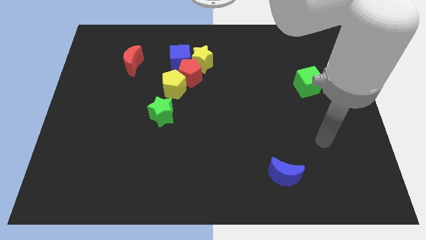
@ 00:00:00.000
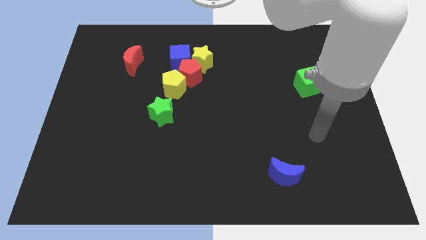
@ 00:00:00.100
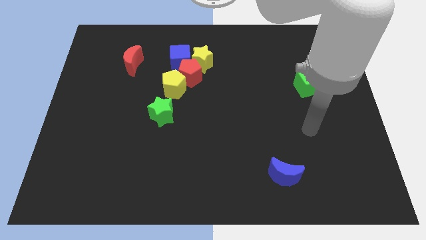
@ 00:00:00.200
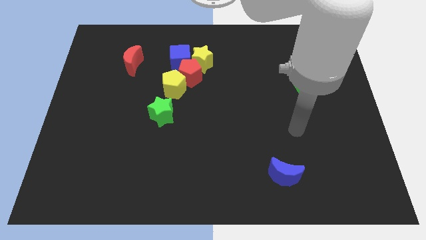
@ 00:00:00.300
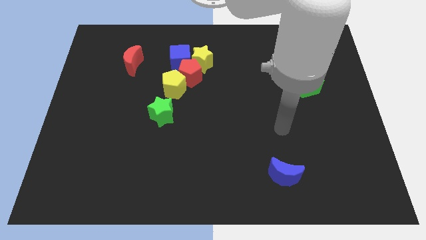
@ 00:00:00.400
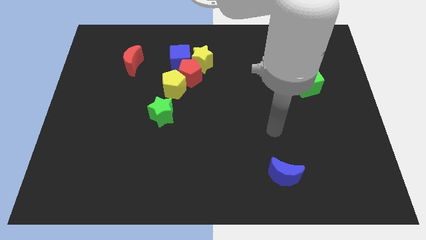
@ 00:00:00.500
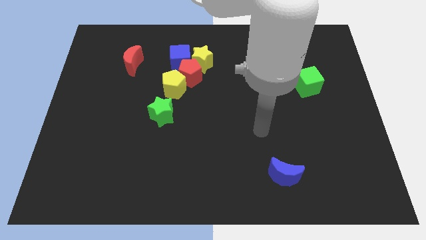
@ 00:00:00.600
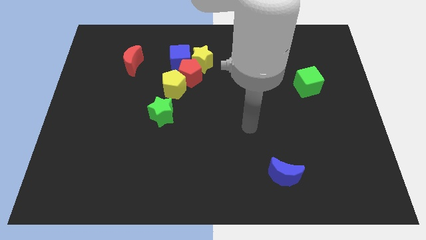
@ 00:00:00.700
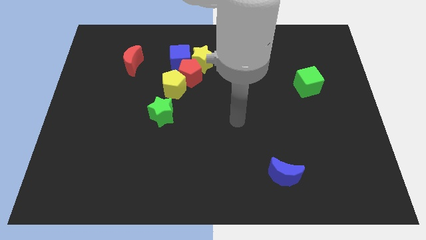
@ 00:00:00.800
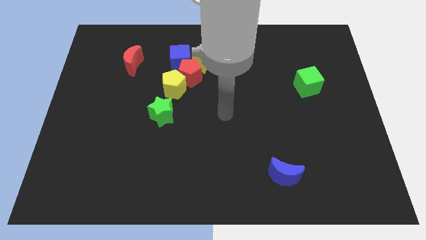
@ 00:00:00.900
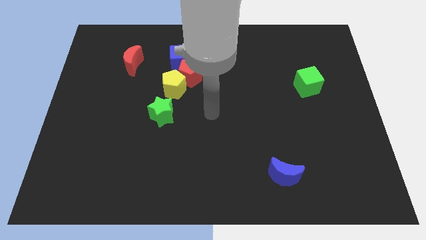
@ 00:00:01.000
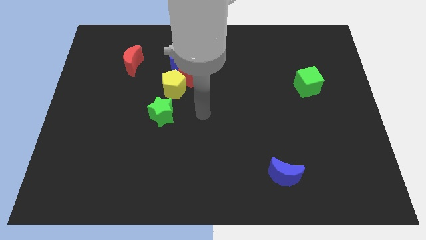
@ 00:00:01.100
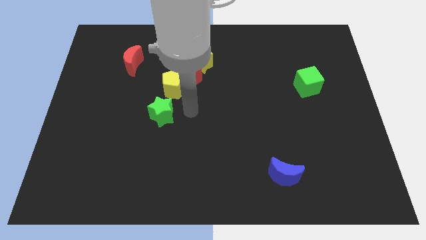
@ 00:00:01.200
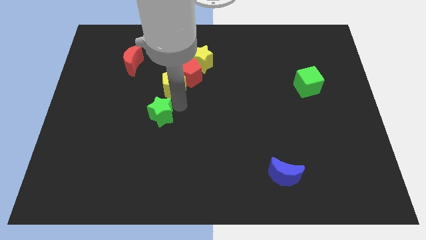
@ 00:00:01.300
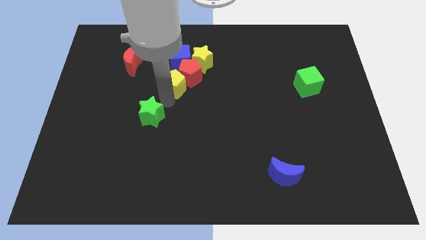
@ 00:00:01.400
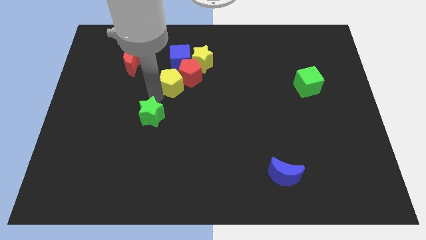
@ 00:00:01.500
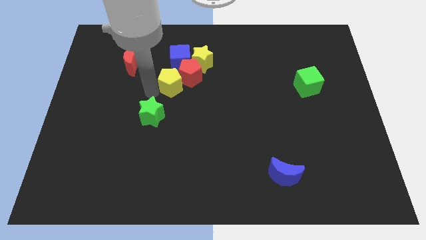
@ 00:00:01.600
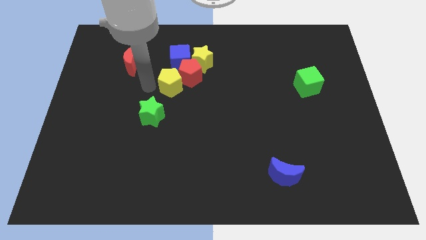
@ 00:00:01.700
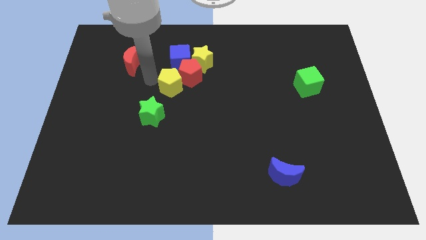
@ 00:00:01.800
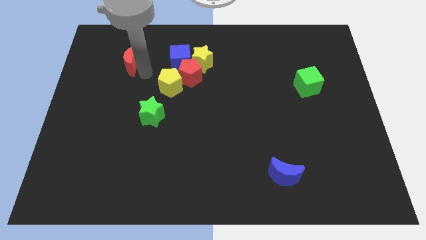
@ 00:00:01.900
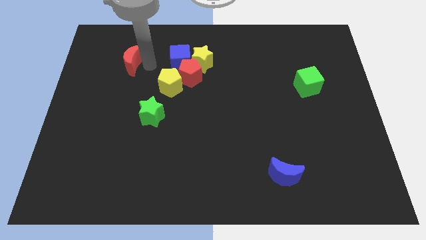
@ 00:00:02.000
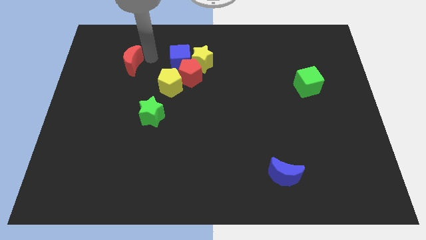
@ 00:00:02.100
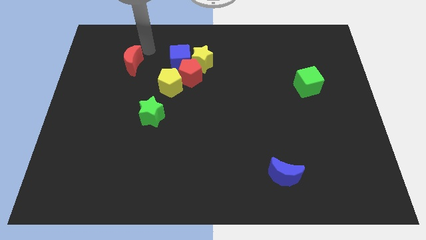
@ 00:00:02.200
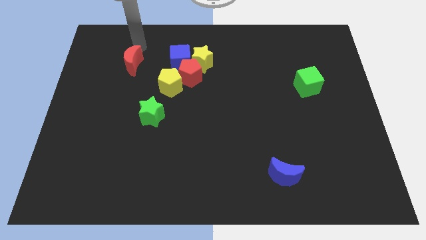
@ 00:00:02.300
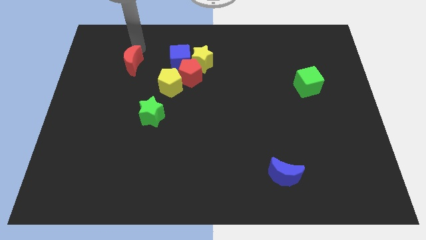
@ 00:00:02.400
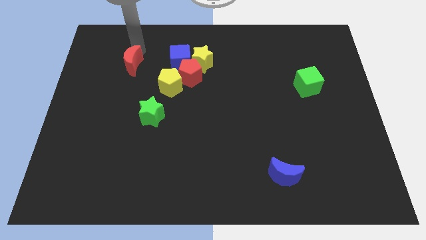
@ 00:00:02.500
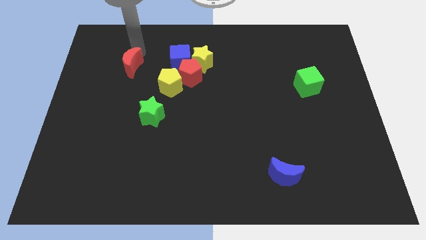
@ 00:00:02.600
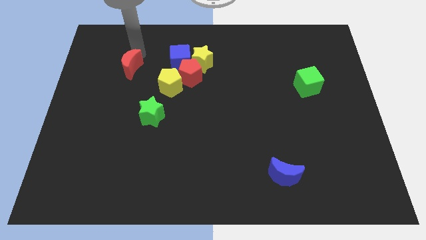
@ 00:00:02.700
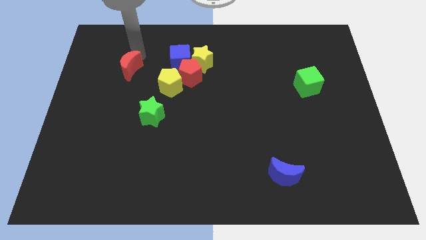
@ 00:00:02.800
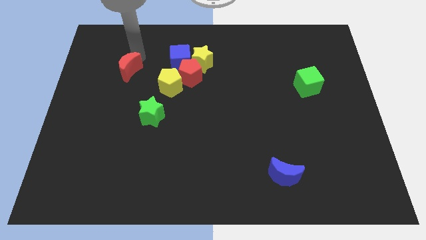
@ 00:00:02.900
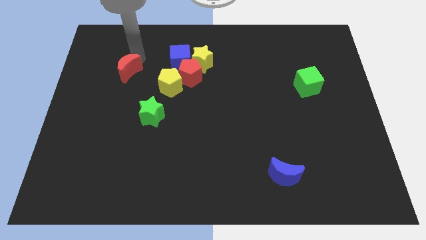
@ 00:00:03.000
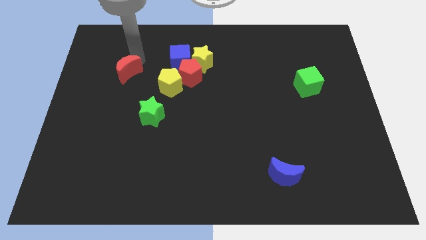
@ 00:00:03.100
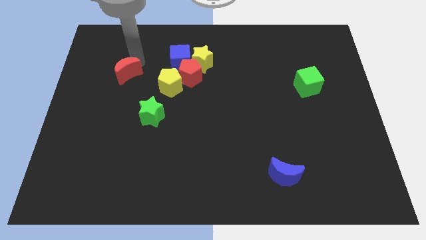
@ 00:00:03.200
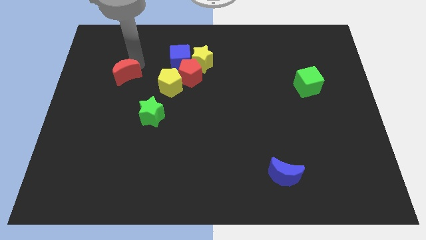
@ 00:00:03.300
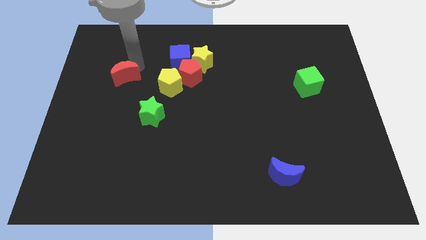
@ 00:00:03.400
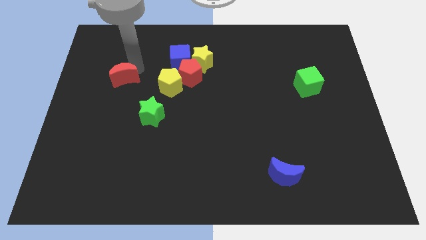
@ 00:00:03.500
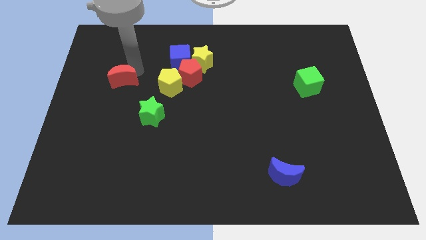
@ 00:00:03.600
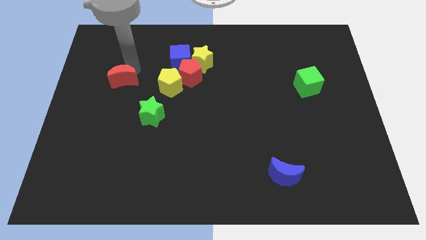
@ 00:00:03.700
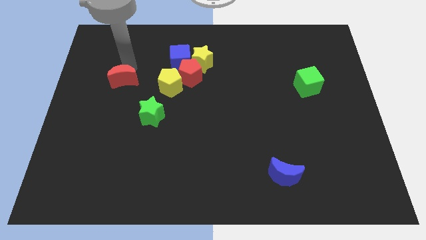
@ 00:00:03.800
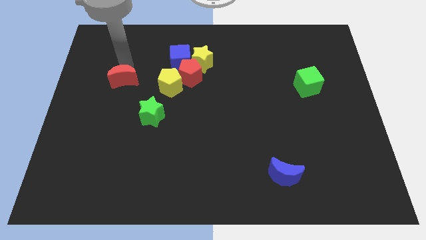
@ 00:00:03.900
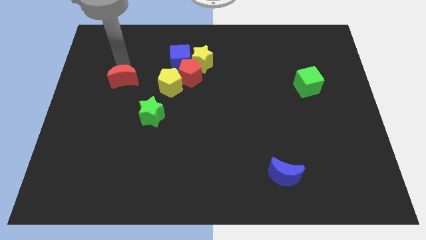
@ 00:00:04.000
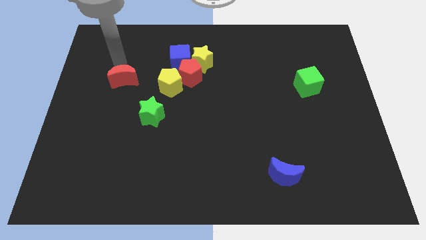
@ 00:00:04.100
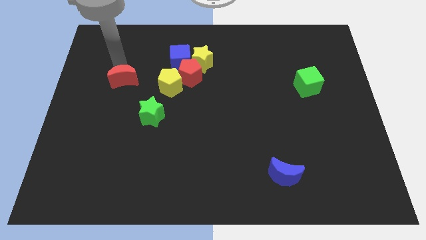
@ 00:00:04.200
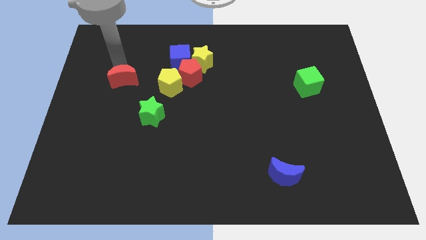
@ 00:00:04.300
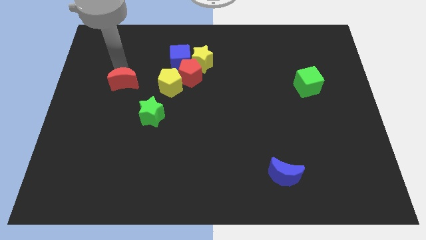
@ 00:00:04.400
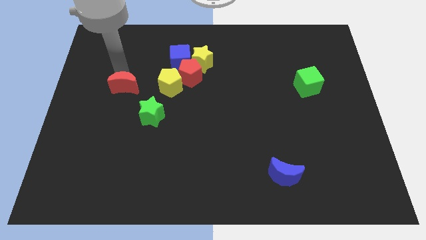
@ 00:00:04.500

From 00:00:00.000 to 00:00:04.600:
slide the red moon downwards slightly

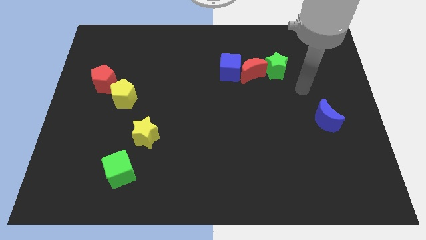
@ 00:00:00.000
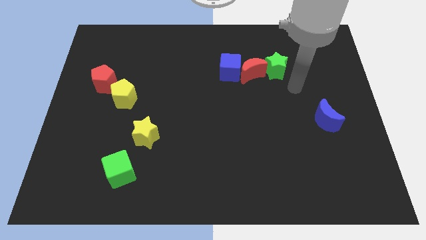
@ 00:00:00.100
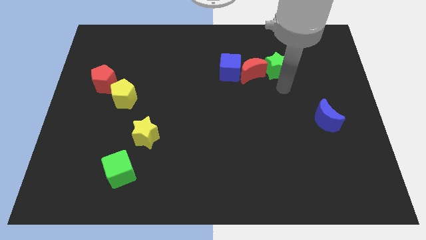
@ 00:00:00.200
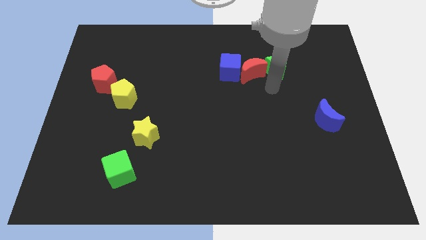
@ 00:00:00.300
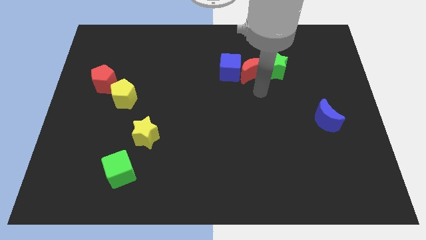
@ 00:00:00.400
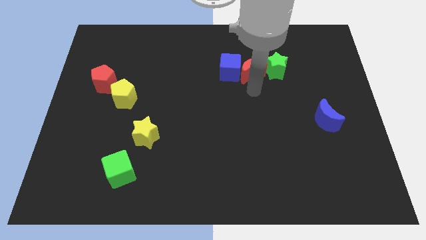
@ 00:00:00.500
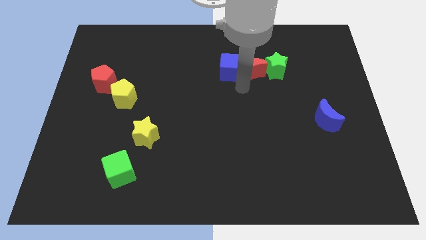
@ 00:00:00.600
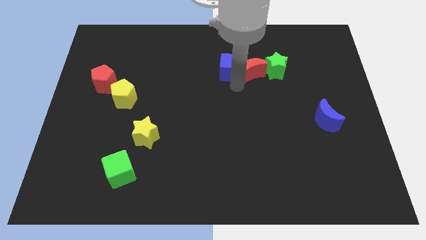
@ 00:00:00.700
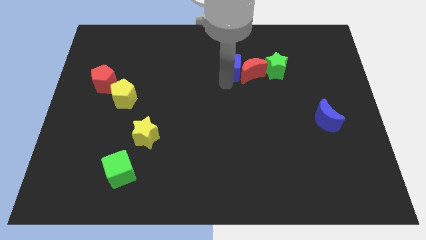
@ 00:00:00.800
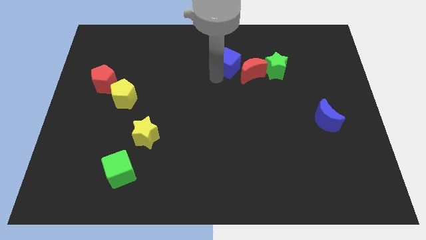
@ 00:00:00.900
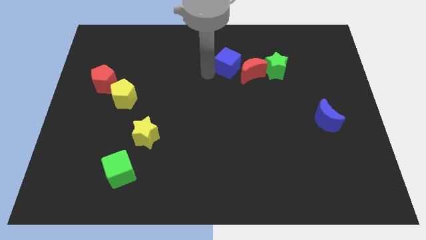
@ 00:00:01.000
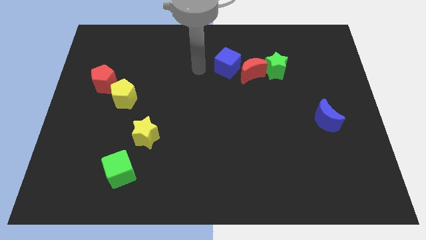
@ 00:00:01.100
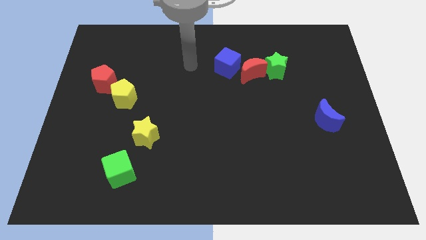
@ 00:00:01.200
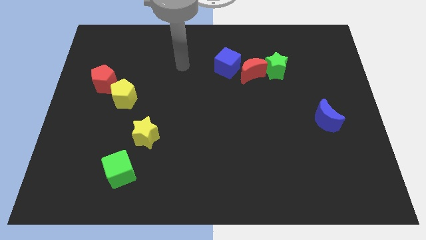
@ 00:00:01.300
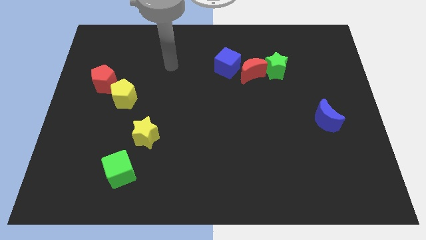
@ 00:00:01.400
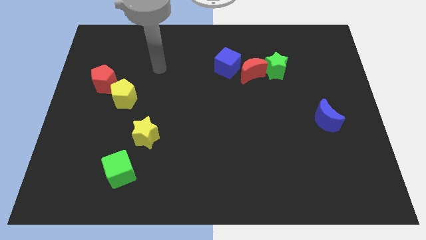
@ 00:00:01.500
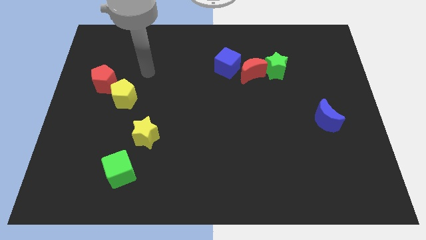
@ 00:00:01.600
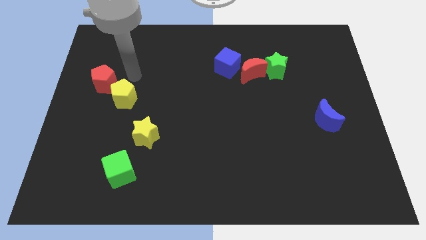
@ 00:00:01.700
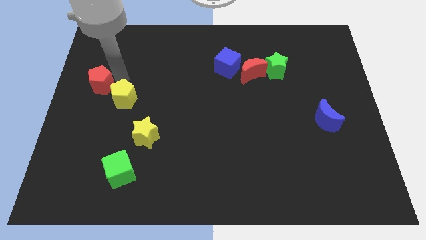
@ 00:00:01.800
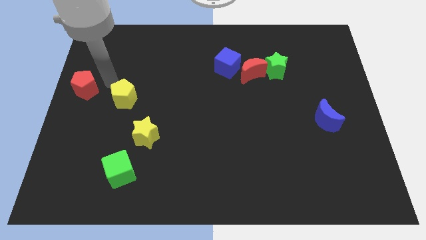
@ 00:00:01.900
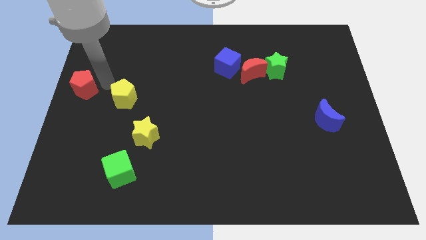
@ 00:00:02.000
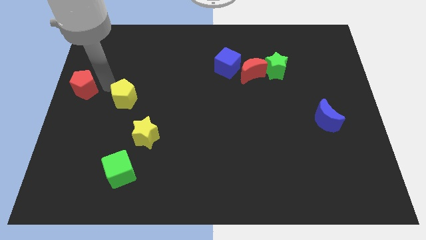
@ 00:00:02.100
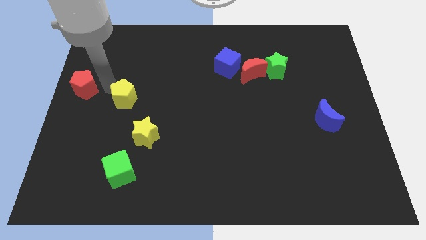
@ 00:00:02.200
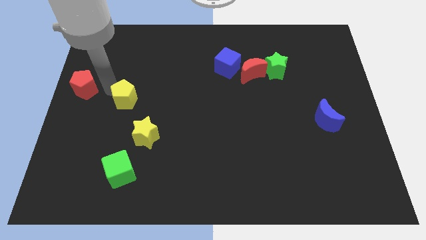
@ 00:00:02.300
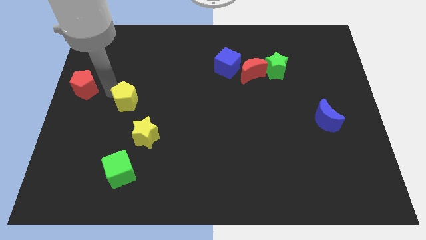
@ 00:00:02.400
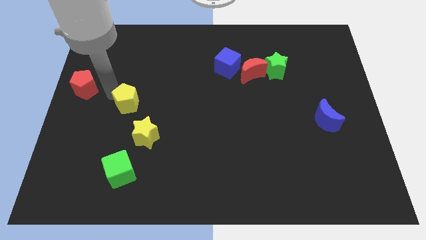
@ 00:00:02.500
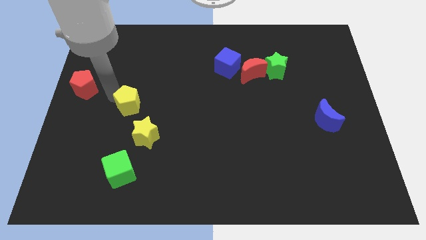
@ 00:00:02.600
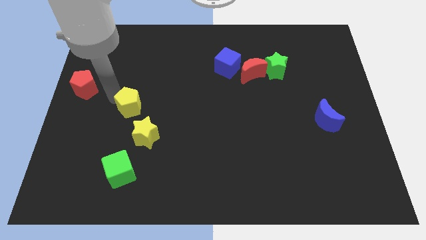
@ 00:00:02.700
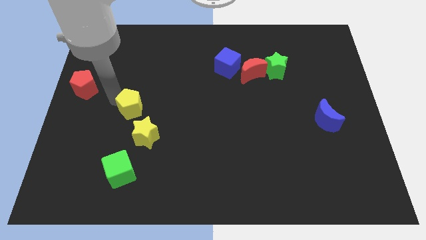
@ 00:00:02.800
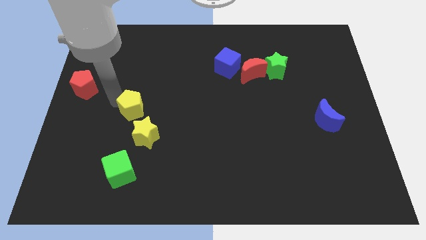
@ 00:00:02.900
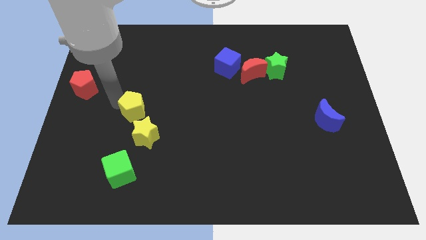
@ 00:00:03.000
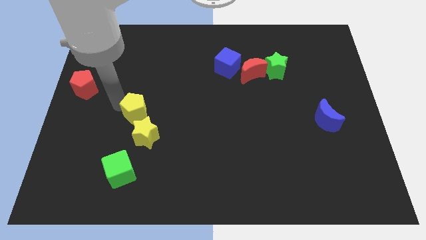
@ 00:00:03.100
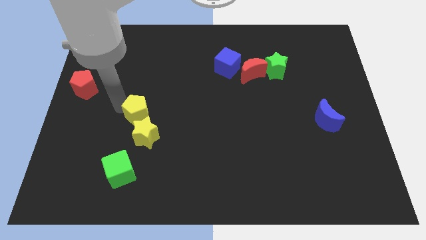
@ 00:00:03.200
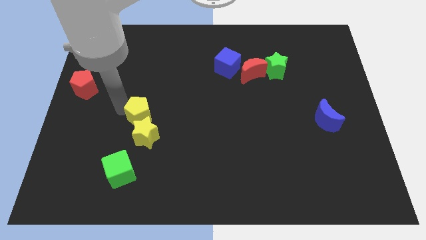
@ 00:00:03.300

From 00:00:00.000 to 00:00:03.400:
slightly move the yellow pentagon down and right diagonally

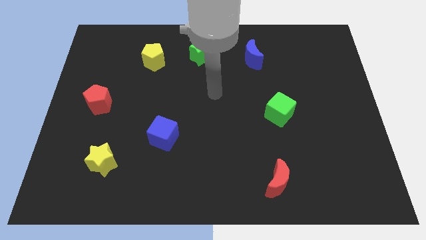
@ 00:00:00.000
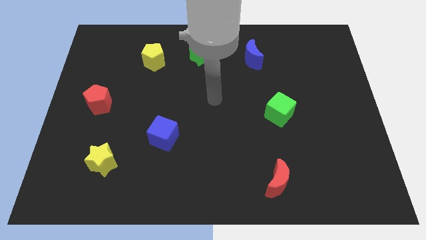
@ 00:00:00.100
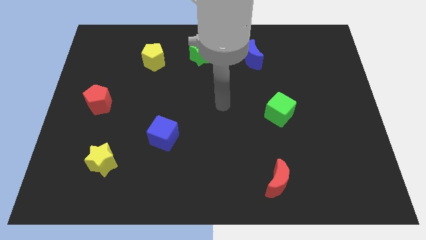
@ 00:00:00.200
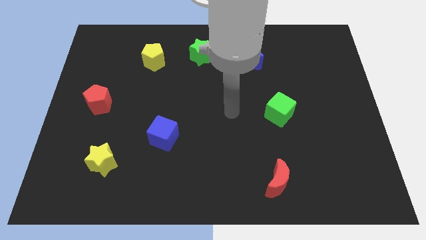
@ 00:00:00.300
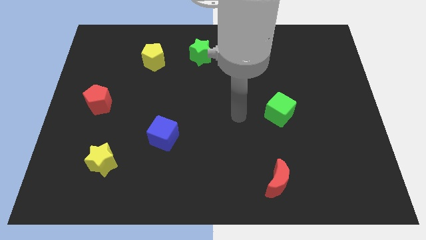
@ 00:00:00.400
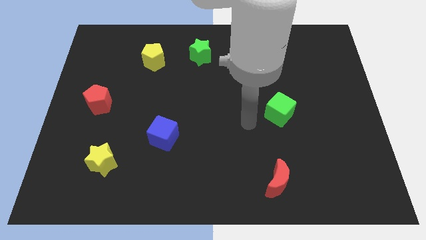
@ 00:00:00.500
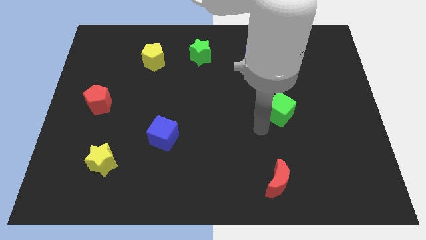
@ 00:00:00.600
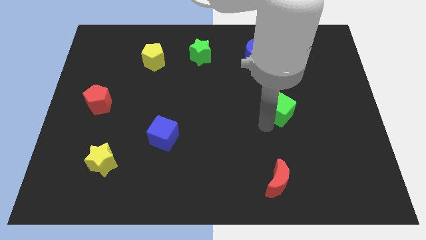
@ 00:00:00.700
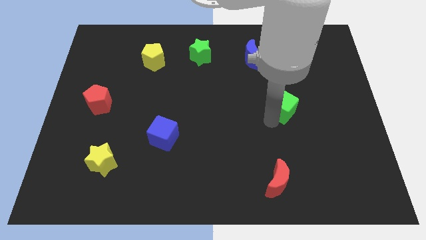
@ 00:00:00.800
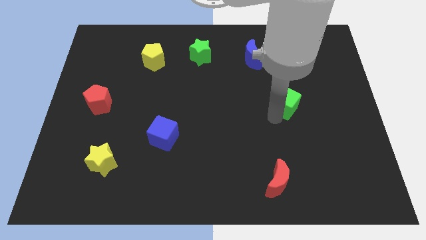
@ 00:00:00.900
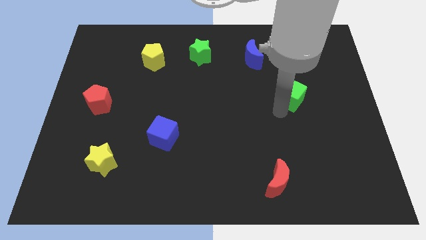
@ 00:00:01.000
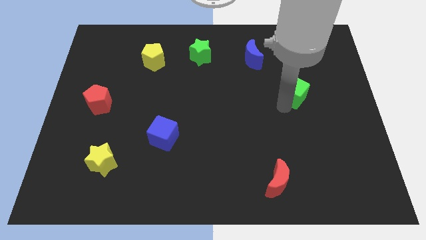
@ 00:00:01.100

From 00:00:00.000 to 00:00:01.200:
move the green cube diagonally up and right a little bit
